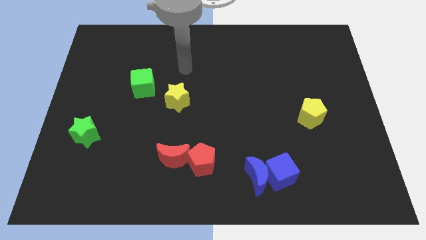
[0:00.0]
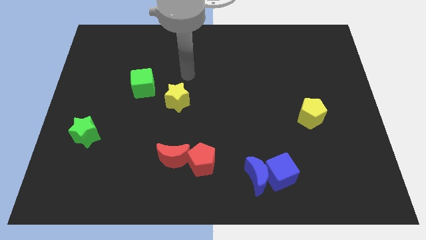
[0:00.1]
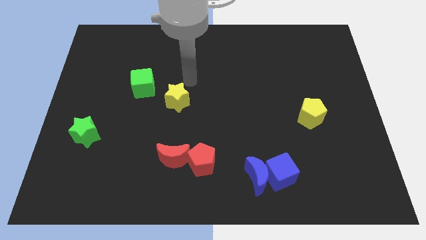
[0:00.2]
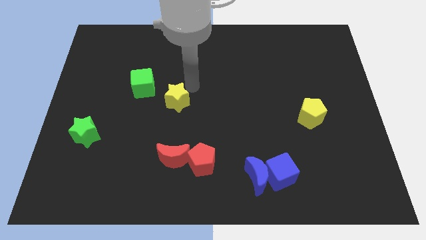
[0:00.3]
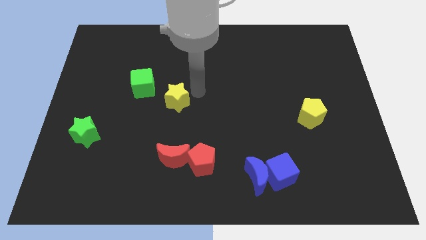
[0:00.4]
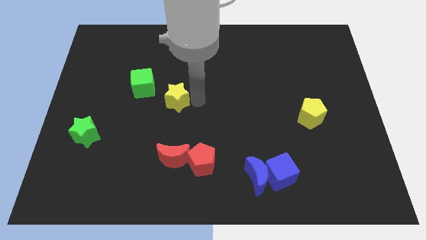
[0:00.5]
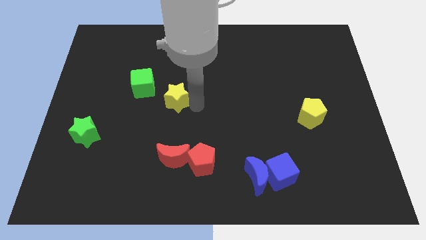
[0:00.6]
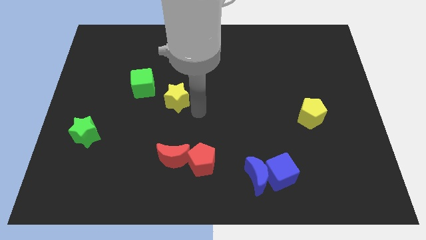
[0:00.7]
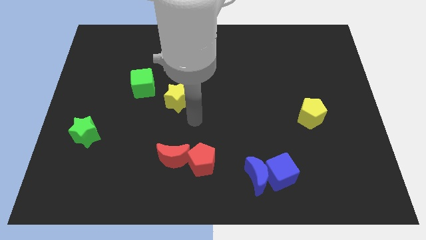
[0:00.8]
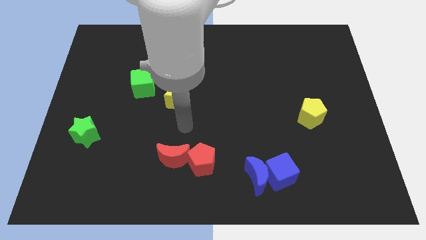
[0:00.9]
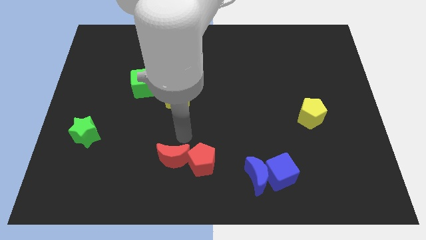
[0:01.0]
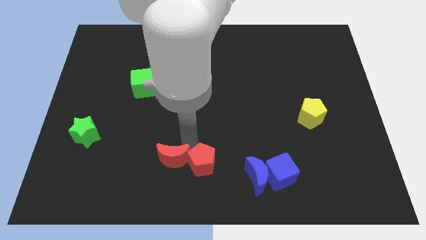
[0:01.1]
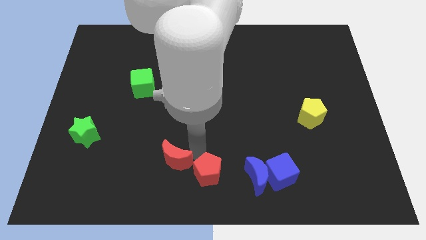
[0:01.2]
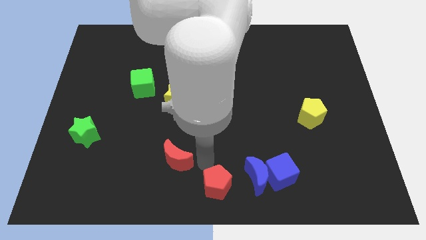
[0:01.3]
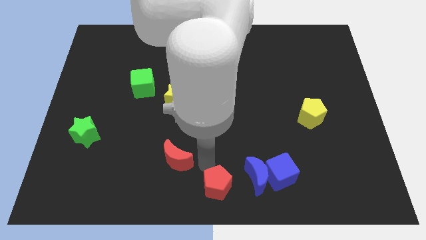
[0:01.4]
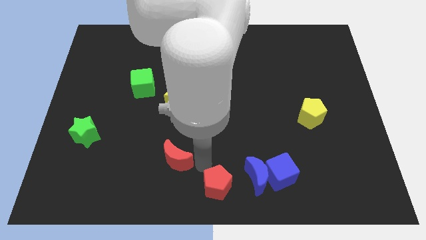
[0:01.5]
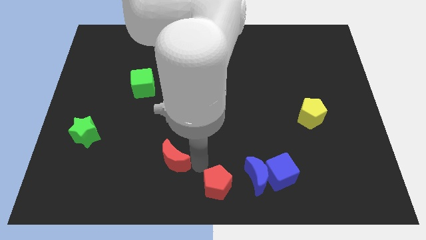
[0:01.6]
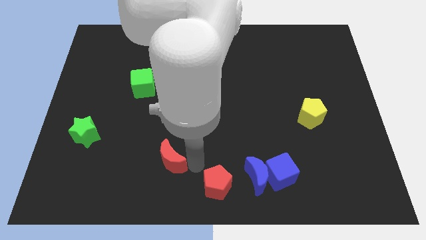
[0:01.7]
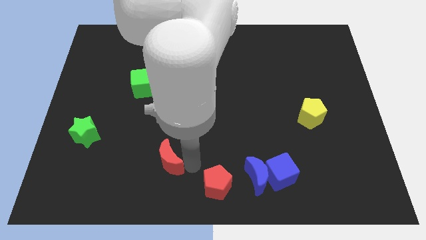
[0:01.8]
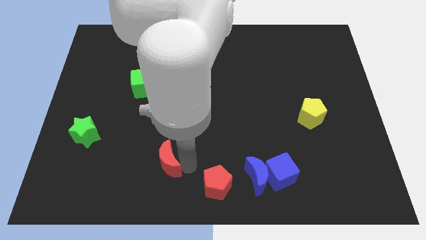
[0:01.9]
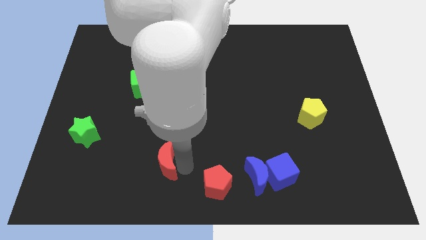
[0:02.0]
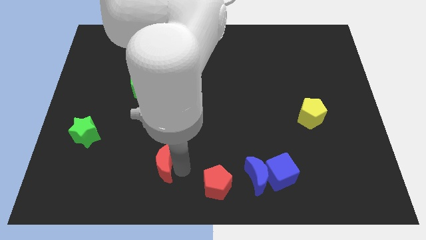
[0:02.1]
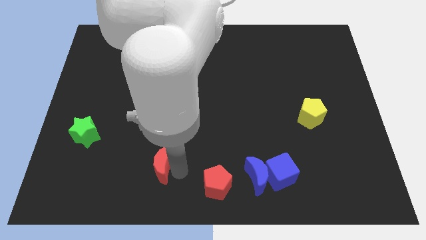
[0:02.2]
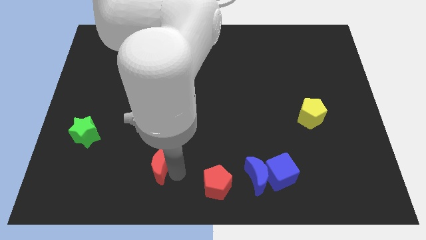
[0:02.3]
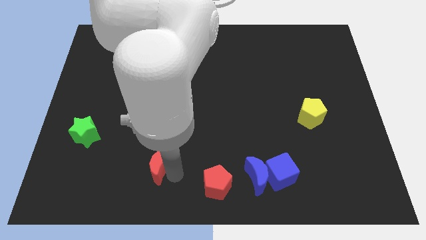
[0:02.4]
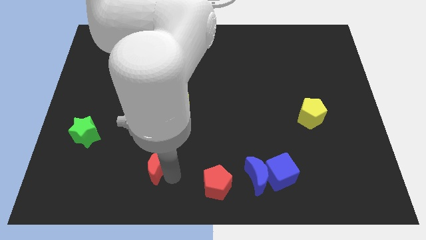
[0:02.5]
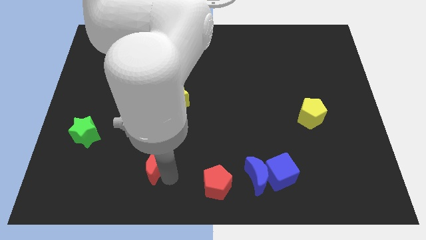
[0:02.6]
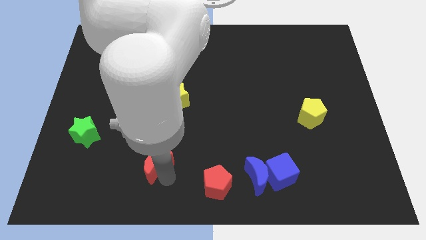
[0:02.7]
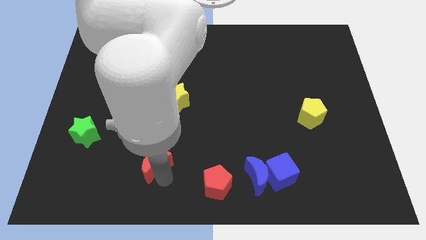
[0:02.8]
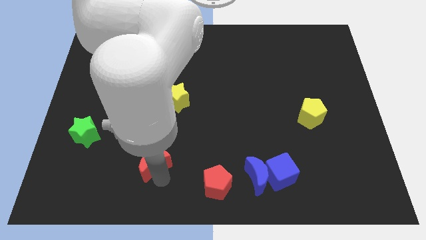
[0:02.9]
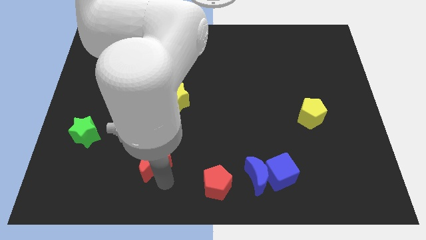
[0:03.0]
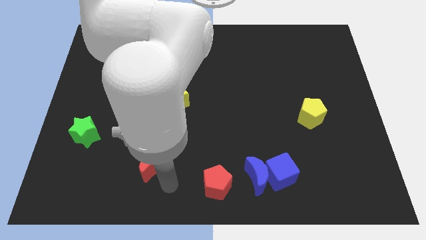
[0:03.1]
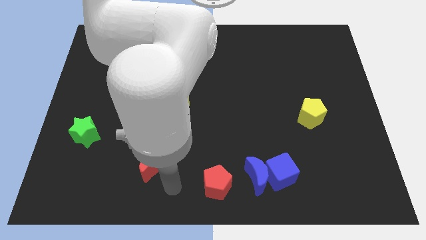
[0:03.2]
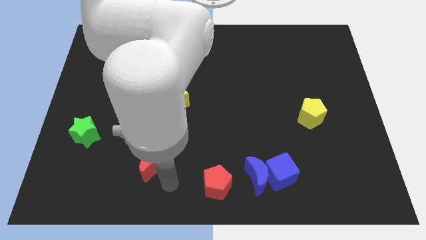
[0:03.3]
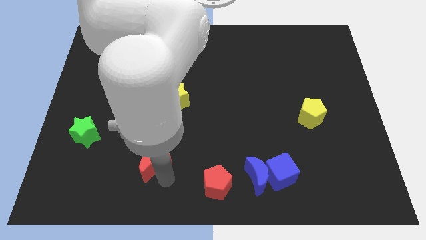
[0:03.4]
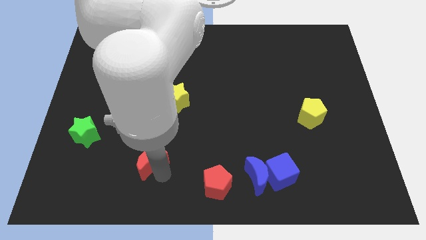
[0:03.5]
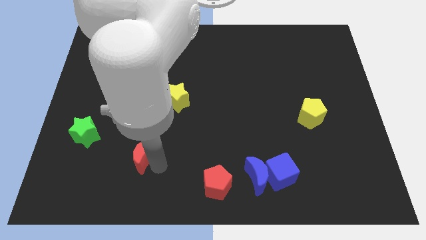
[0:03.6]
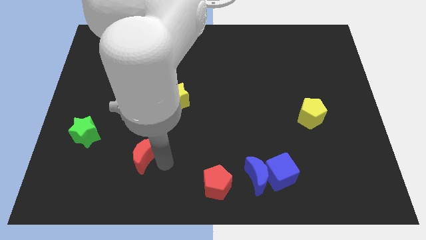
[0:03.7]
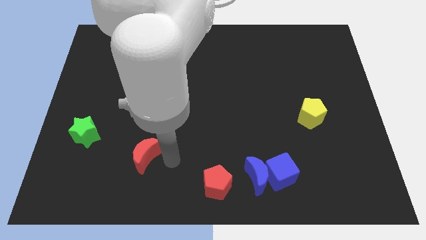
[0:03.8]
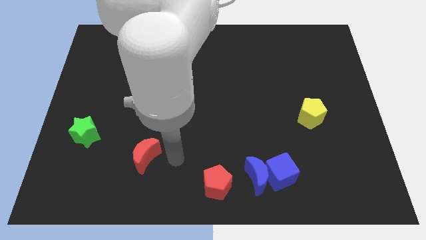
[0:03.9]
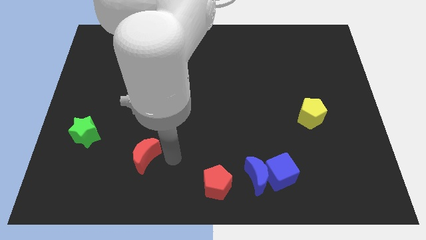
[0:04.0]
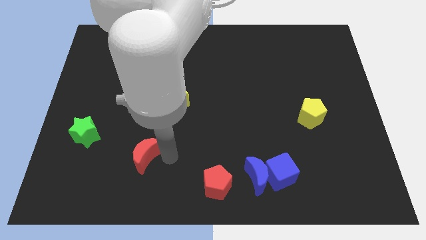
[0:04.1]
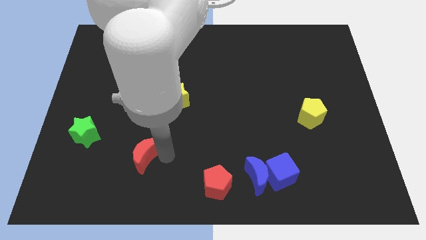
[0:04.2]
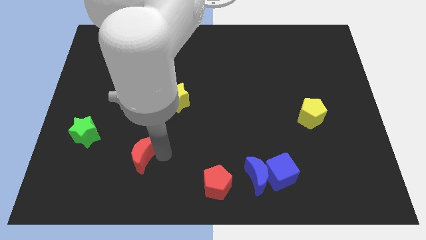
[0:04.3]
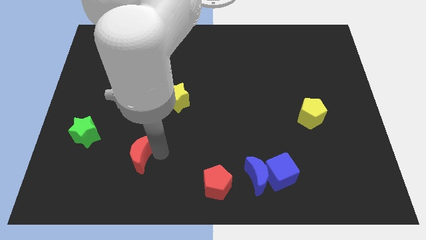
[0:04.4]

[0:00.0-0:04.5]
move the red moon to the left a bit

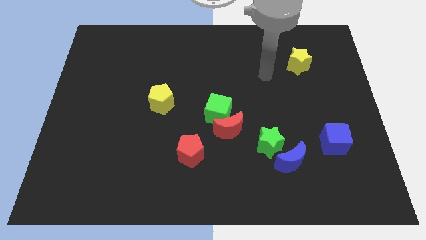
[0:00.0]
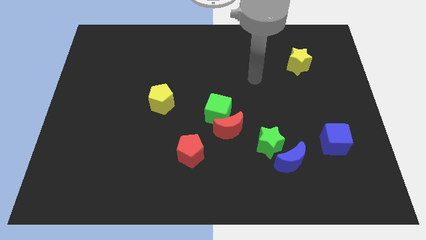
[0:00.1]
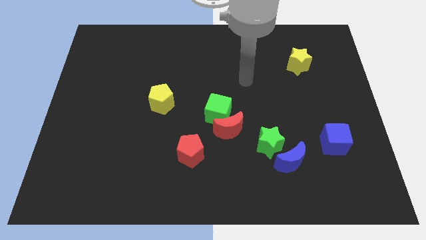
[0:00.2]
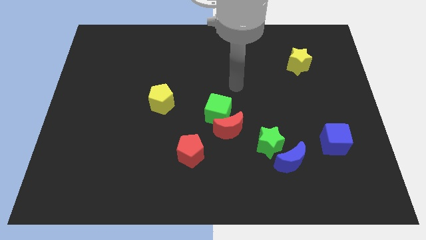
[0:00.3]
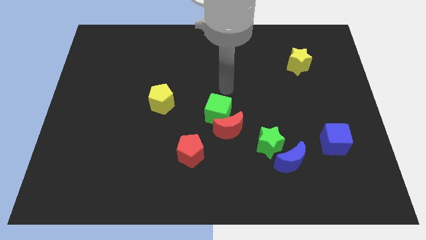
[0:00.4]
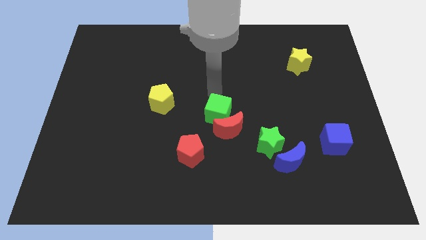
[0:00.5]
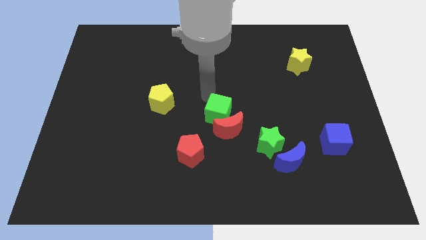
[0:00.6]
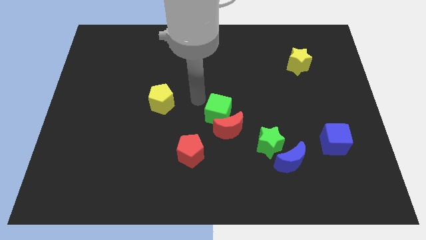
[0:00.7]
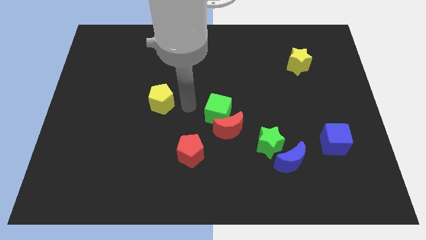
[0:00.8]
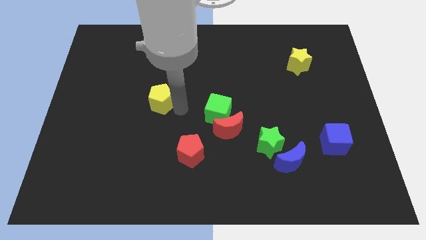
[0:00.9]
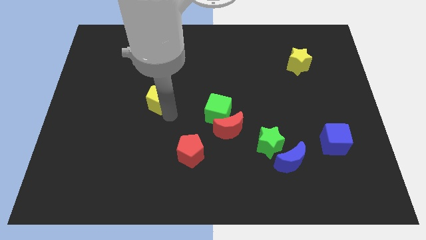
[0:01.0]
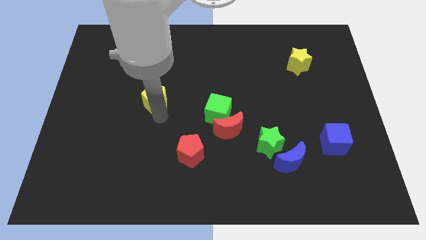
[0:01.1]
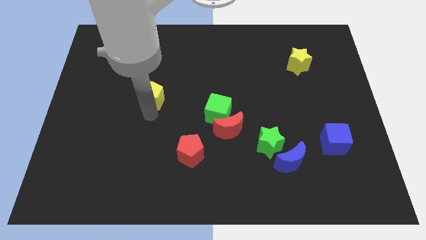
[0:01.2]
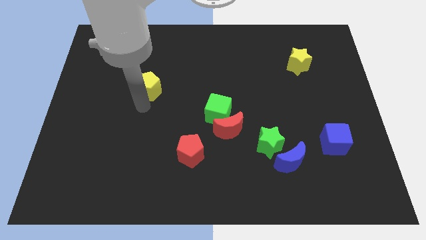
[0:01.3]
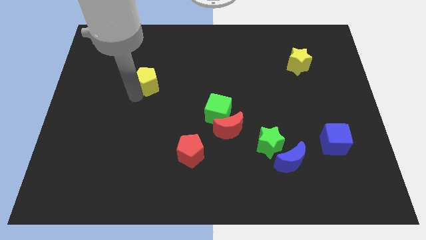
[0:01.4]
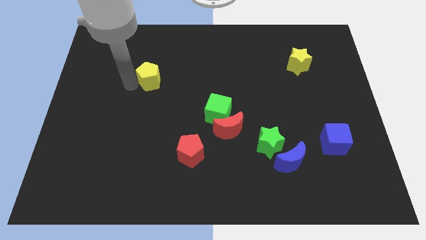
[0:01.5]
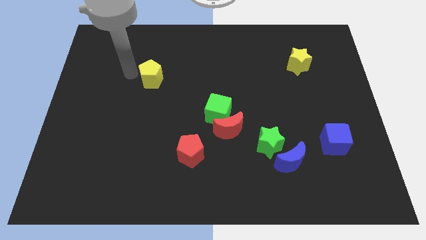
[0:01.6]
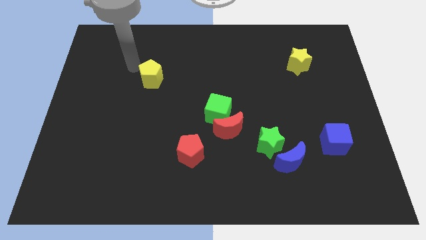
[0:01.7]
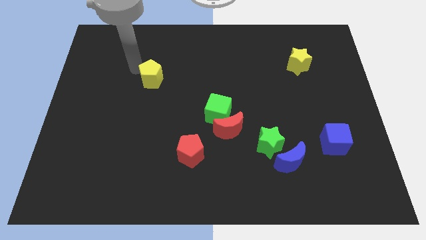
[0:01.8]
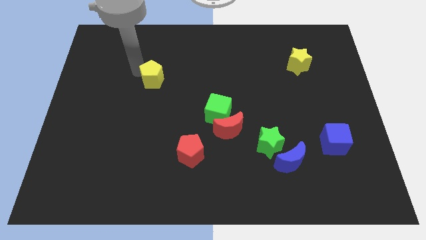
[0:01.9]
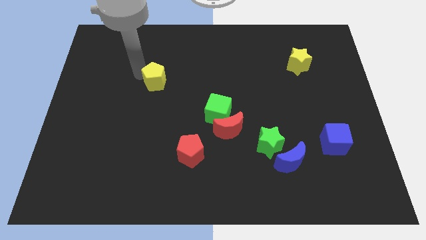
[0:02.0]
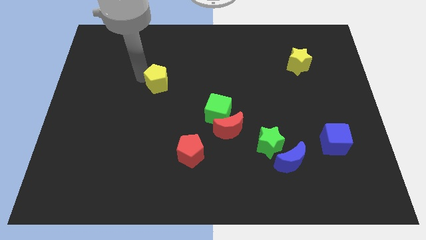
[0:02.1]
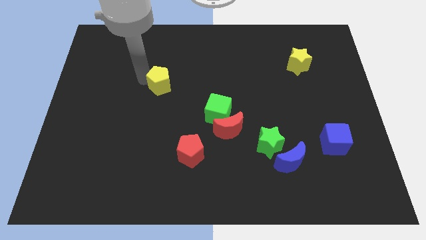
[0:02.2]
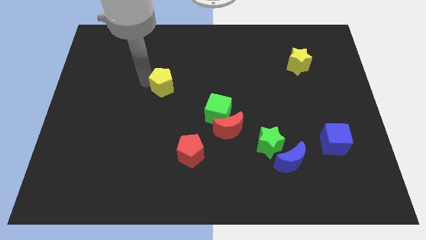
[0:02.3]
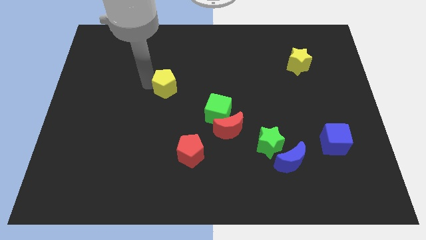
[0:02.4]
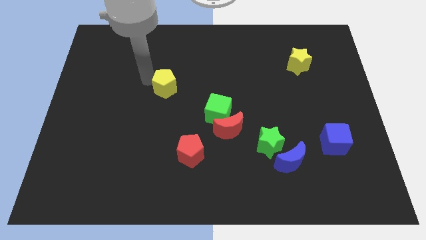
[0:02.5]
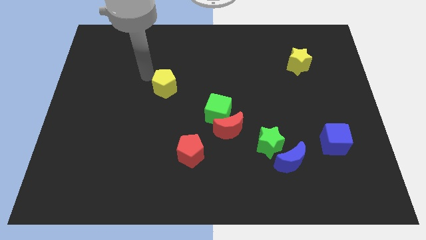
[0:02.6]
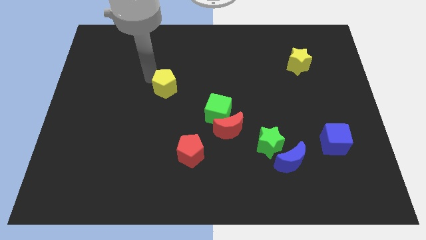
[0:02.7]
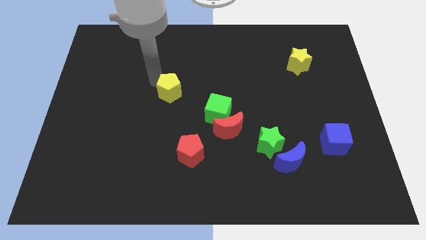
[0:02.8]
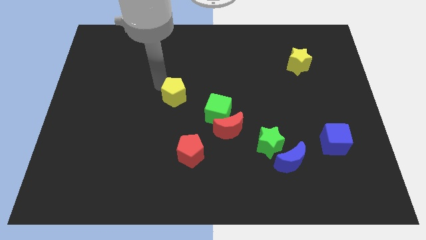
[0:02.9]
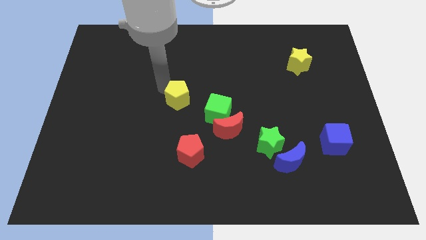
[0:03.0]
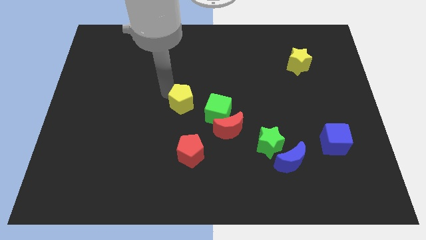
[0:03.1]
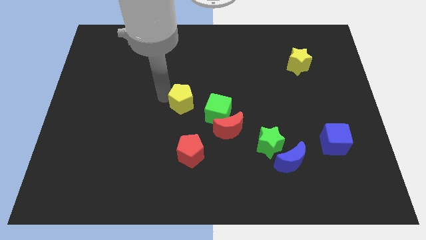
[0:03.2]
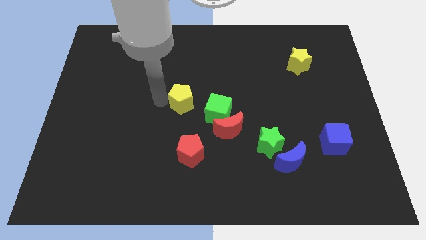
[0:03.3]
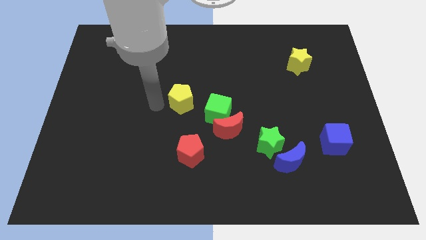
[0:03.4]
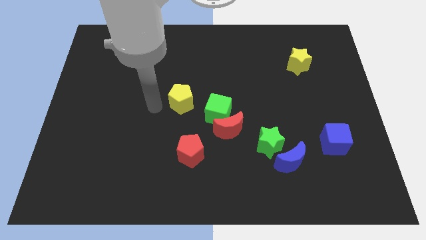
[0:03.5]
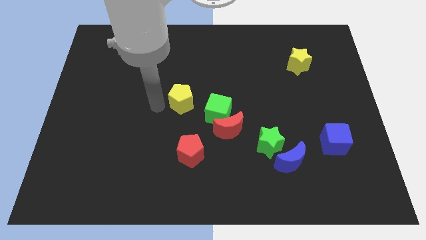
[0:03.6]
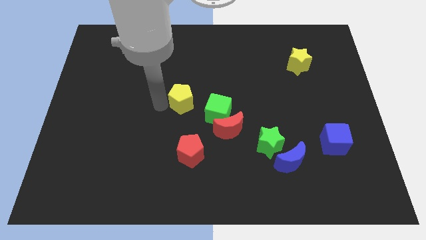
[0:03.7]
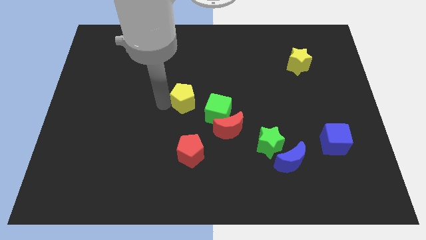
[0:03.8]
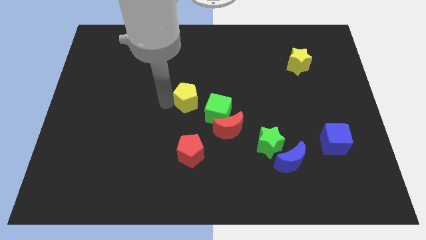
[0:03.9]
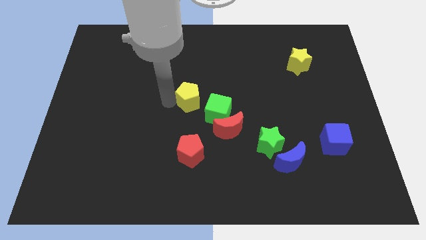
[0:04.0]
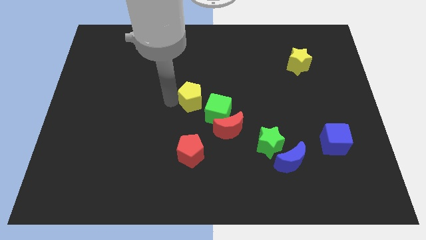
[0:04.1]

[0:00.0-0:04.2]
slide the yellow pentagon a little bit to the right
